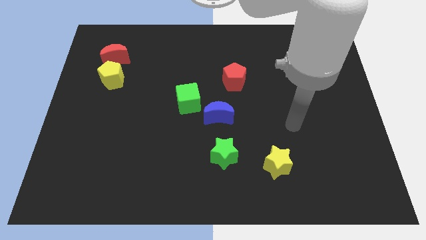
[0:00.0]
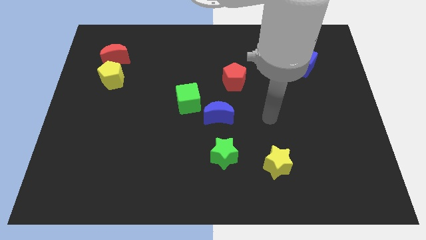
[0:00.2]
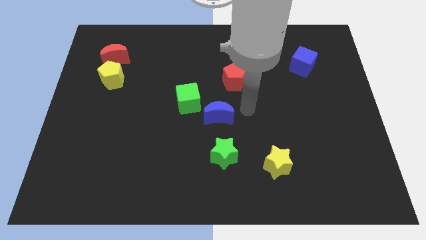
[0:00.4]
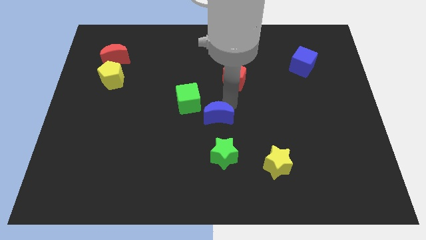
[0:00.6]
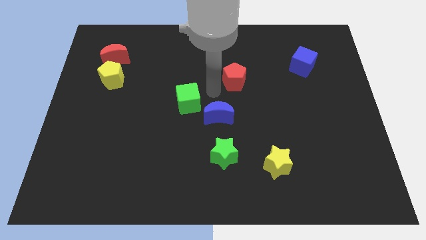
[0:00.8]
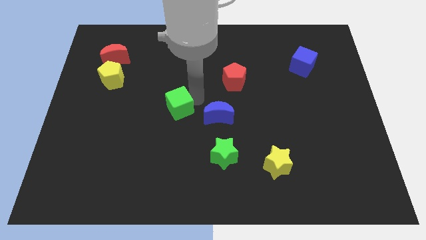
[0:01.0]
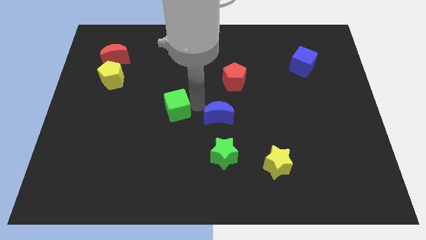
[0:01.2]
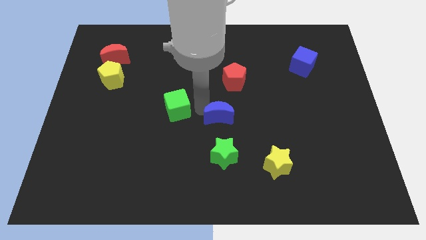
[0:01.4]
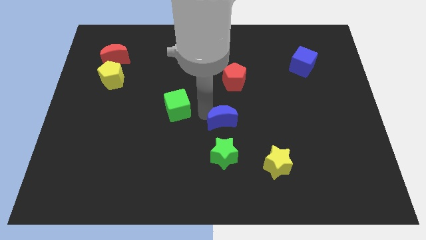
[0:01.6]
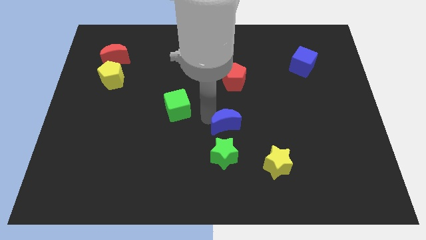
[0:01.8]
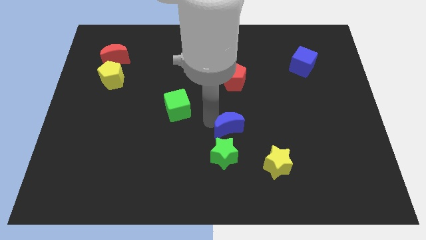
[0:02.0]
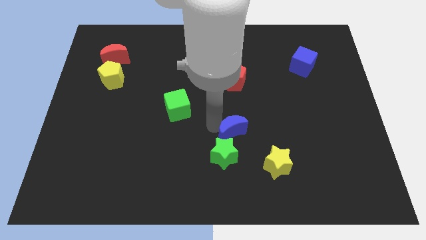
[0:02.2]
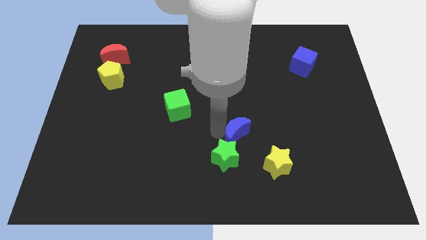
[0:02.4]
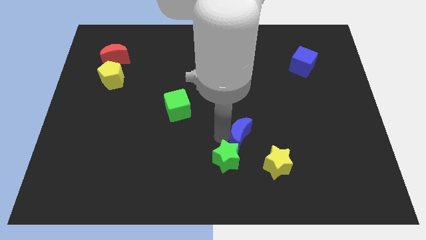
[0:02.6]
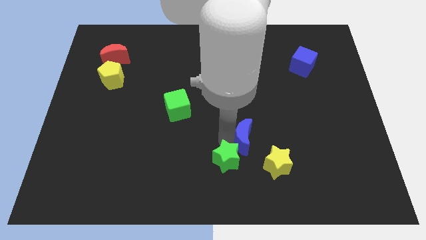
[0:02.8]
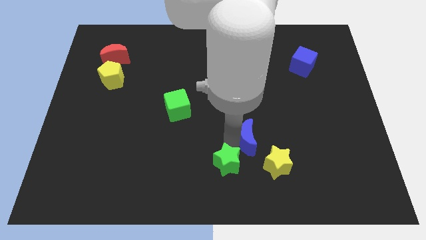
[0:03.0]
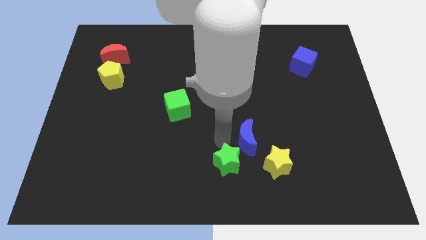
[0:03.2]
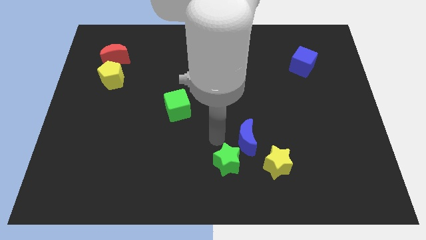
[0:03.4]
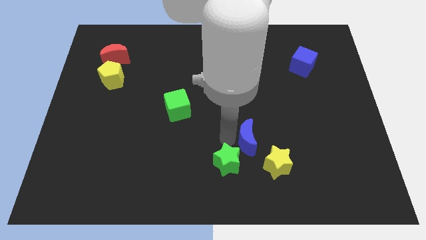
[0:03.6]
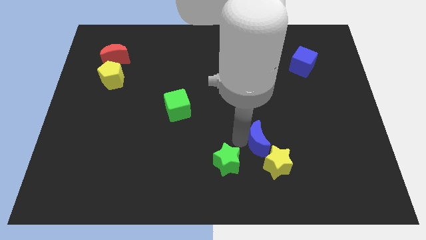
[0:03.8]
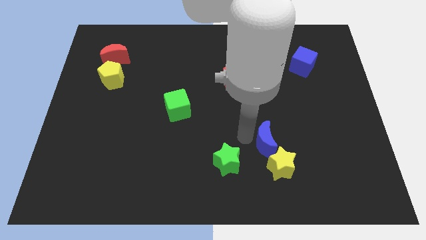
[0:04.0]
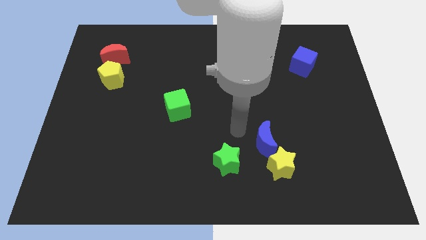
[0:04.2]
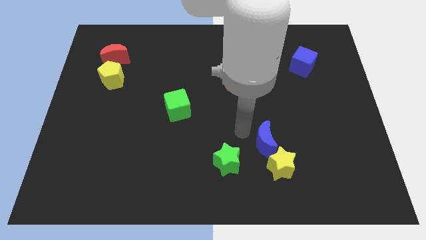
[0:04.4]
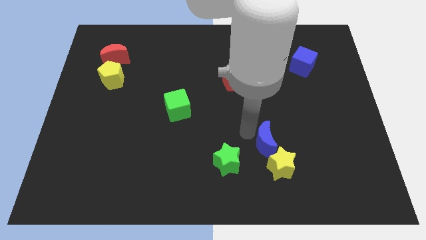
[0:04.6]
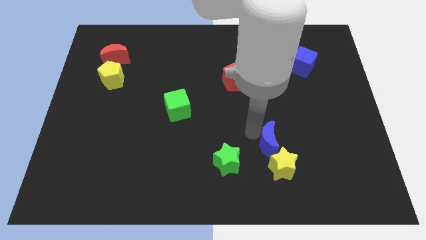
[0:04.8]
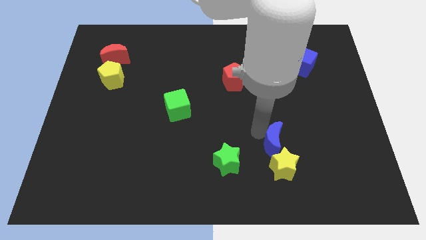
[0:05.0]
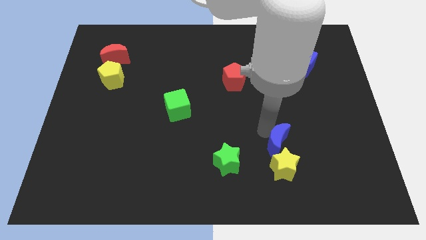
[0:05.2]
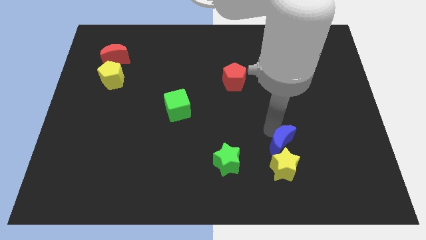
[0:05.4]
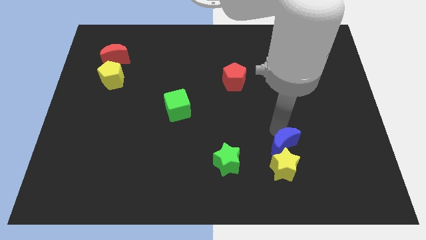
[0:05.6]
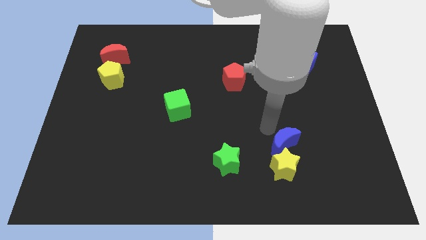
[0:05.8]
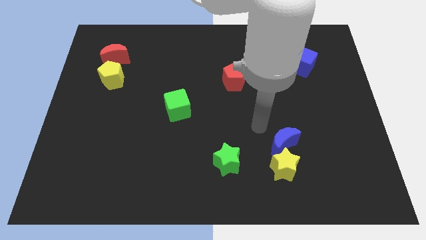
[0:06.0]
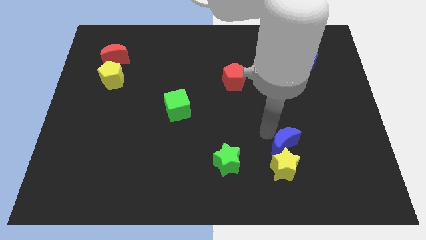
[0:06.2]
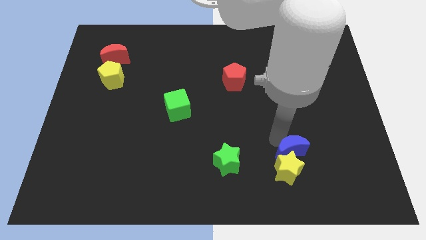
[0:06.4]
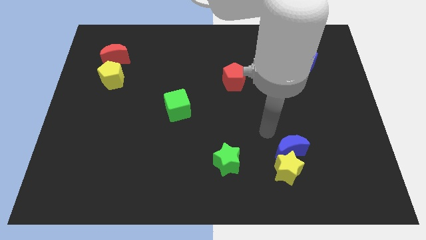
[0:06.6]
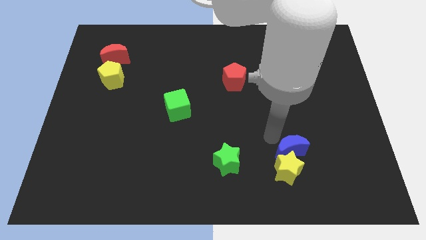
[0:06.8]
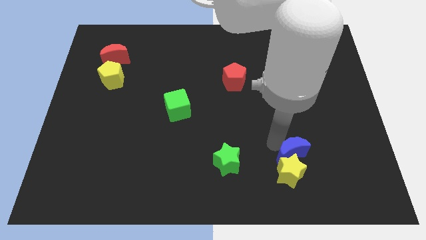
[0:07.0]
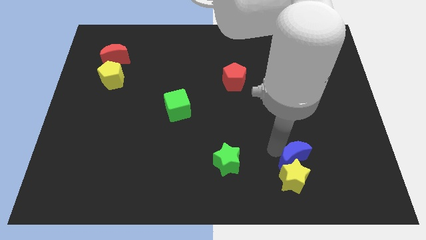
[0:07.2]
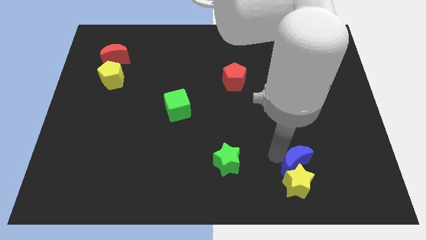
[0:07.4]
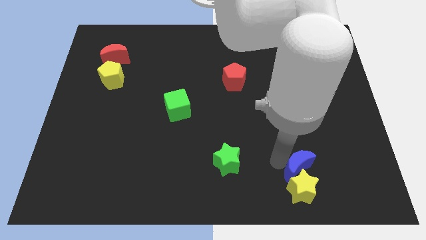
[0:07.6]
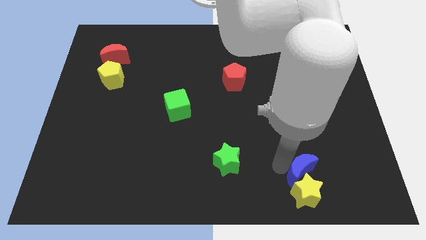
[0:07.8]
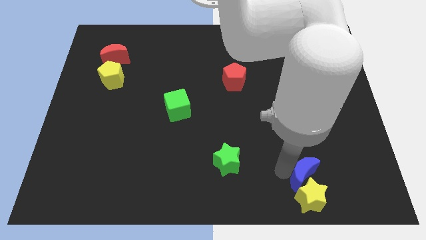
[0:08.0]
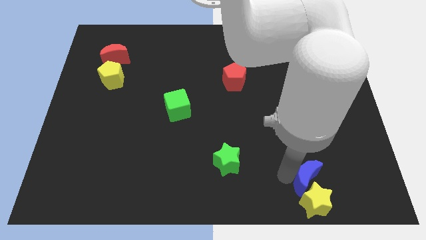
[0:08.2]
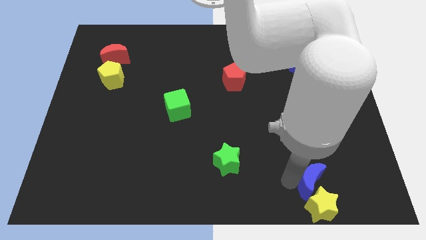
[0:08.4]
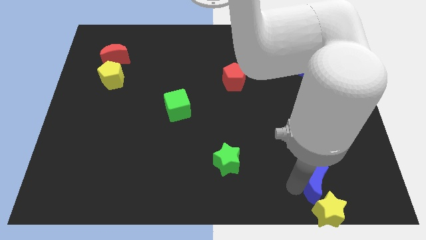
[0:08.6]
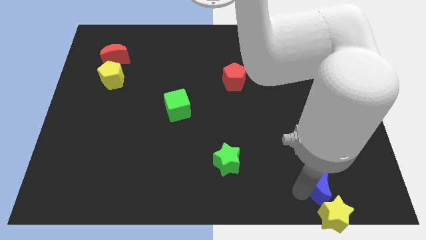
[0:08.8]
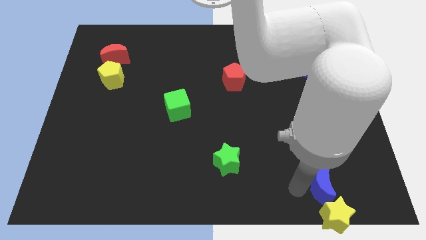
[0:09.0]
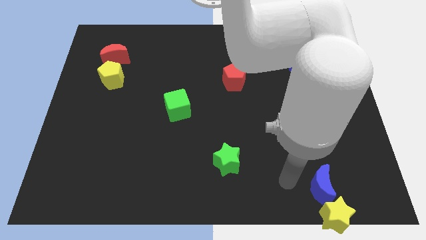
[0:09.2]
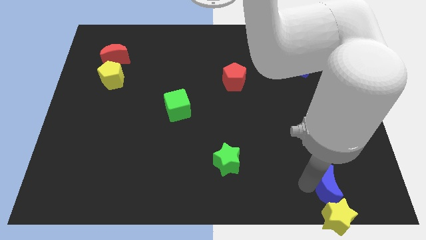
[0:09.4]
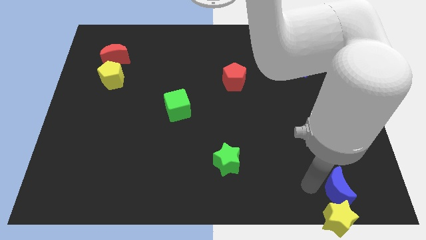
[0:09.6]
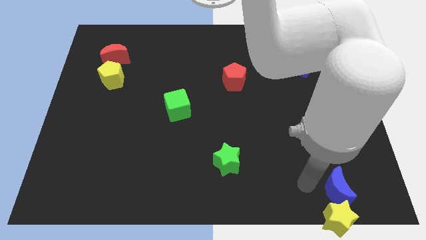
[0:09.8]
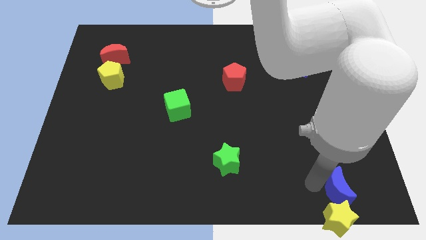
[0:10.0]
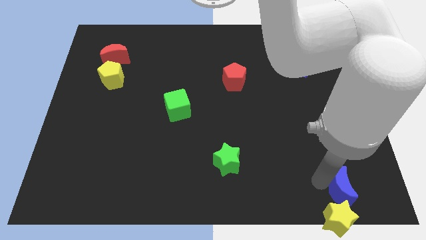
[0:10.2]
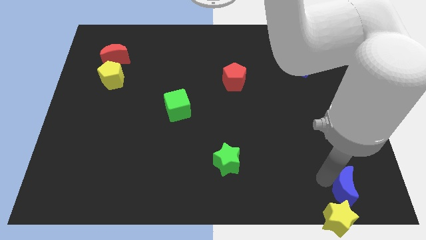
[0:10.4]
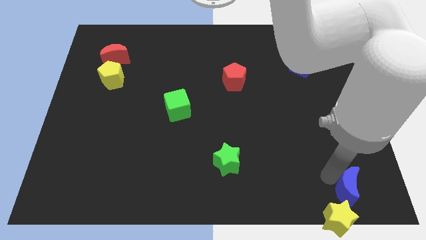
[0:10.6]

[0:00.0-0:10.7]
slide the blue moon to the bottom right corner

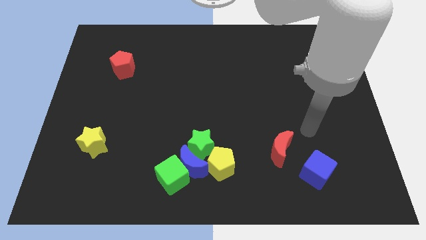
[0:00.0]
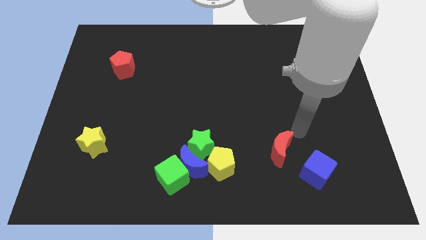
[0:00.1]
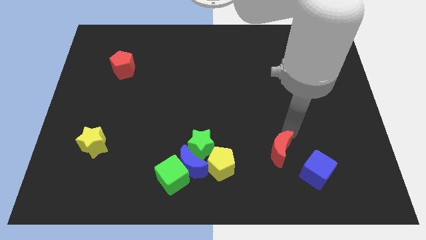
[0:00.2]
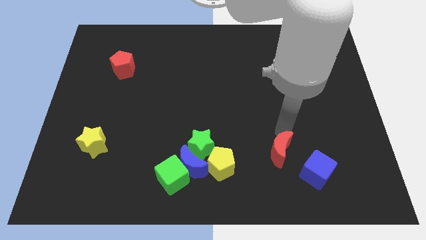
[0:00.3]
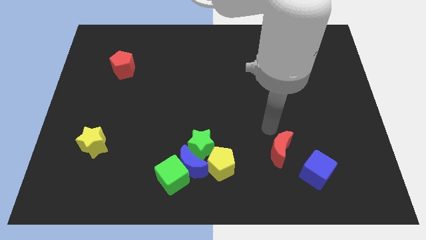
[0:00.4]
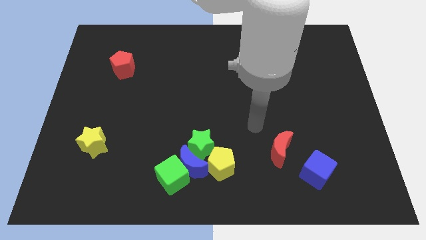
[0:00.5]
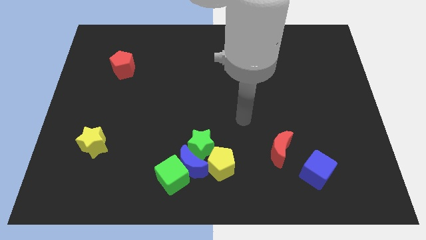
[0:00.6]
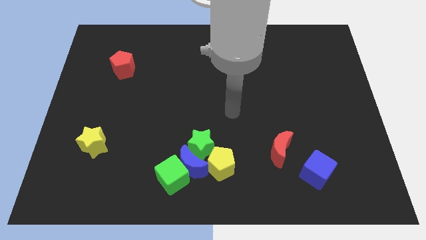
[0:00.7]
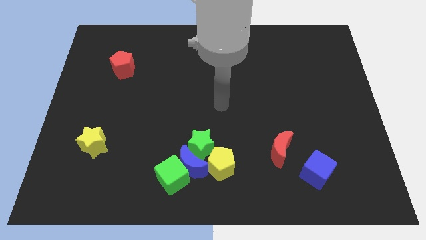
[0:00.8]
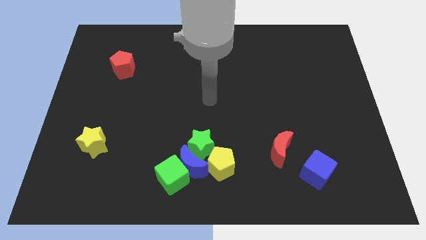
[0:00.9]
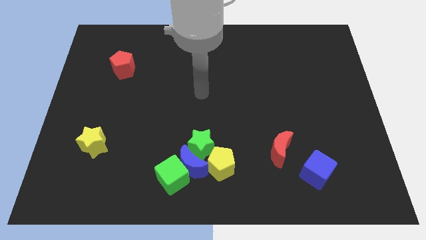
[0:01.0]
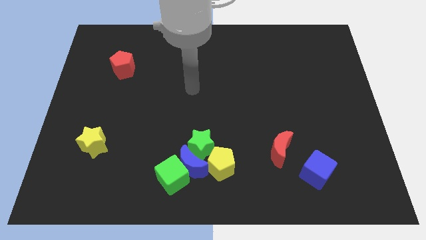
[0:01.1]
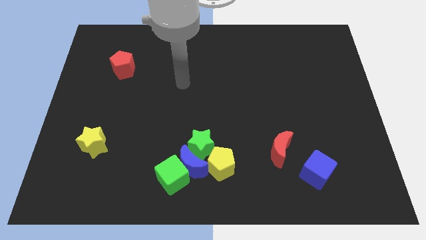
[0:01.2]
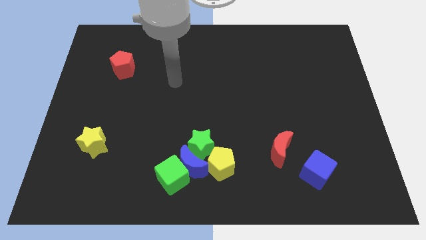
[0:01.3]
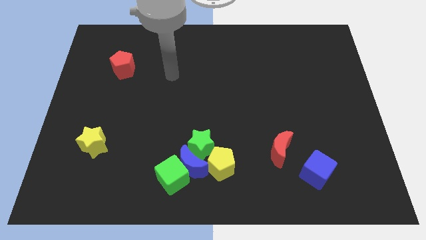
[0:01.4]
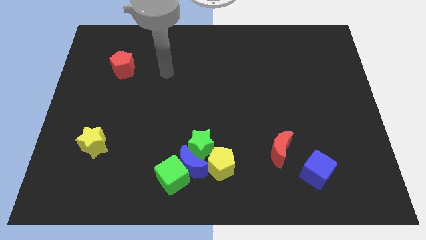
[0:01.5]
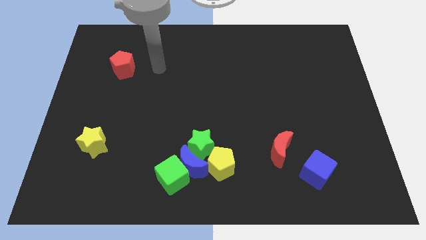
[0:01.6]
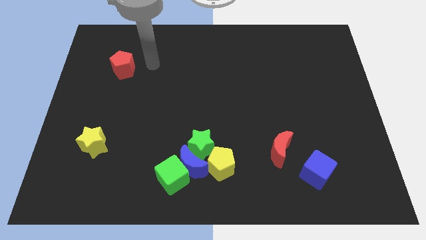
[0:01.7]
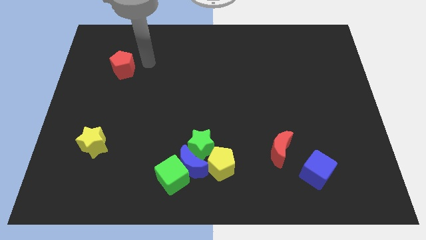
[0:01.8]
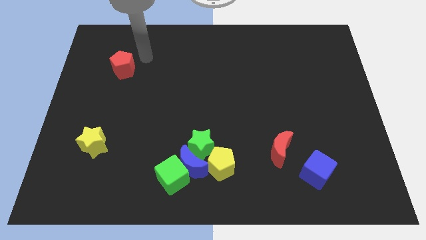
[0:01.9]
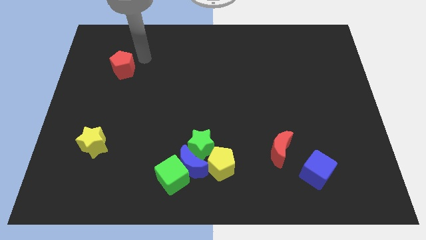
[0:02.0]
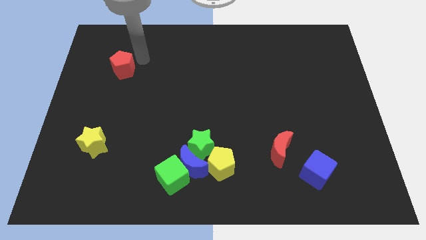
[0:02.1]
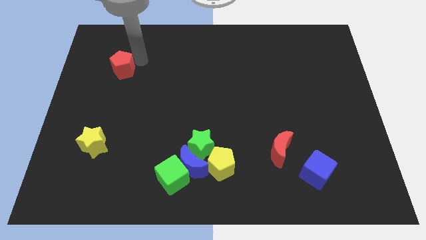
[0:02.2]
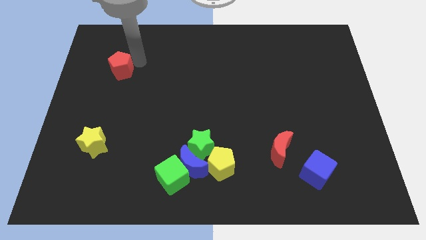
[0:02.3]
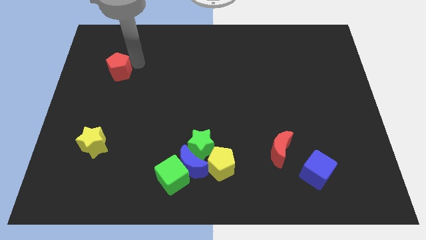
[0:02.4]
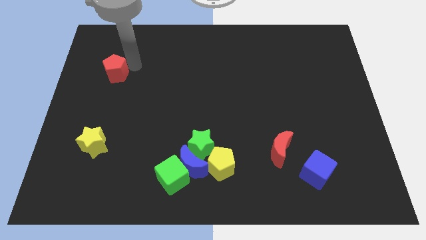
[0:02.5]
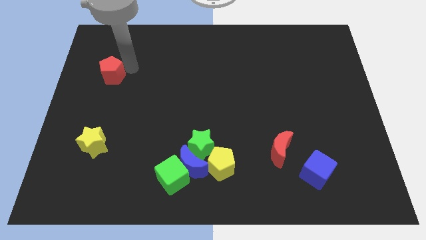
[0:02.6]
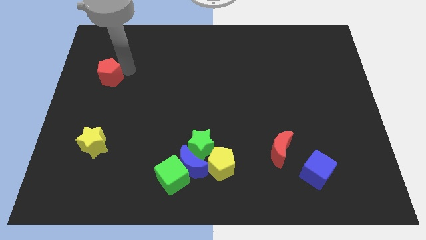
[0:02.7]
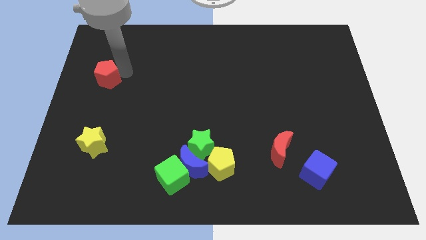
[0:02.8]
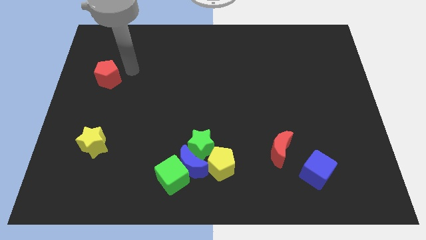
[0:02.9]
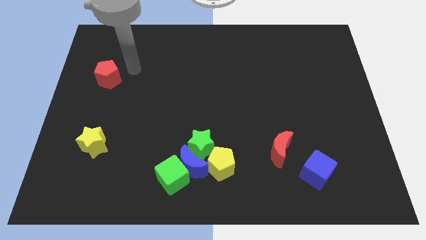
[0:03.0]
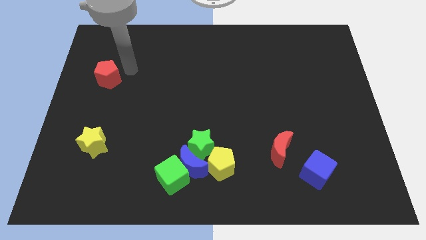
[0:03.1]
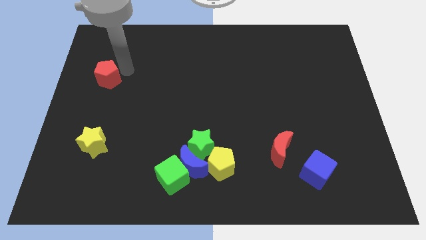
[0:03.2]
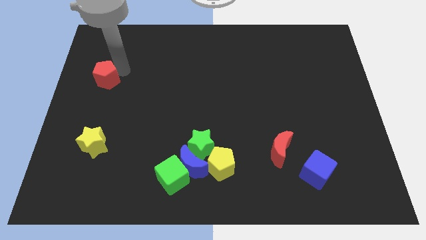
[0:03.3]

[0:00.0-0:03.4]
move the red pentagon to the left side
